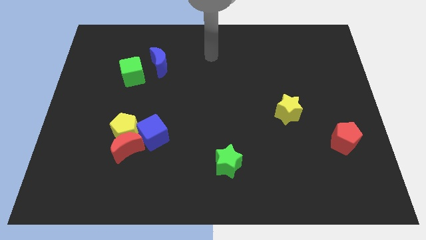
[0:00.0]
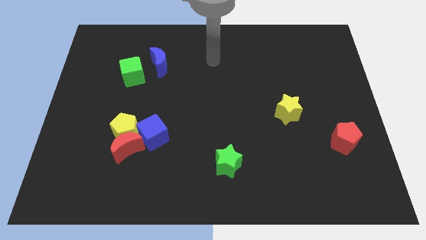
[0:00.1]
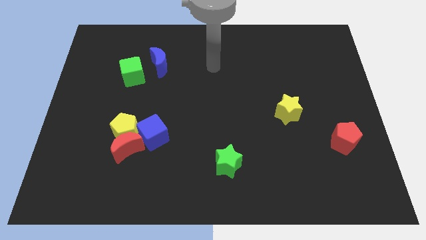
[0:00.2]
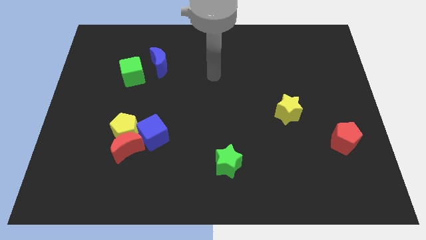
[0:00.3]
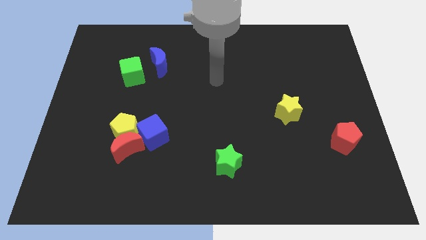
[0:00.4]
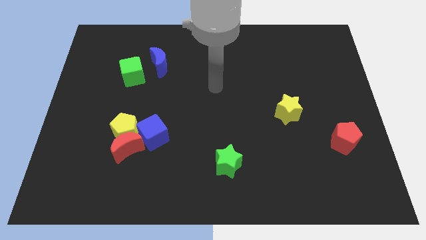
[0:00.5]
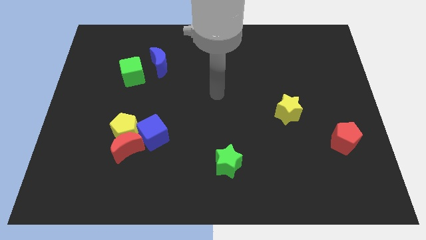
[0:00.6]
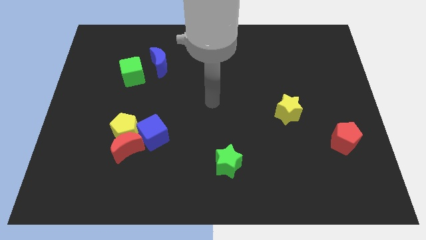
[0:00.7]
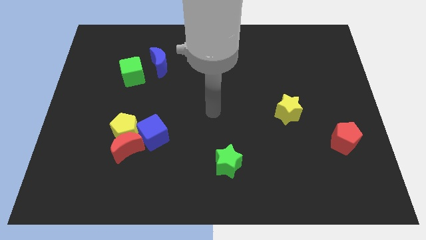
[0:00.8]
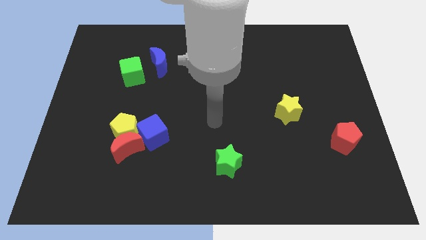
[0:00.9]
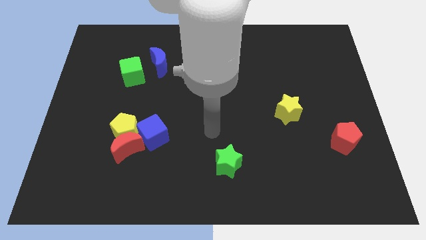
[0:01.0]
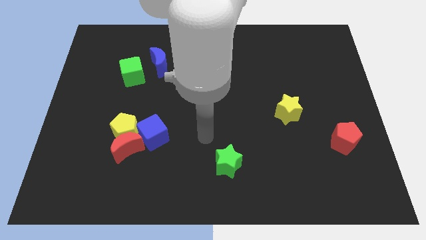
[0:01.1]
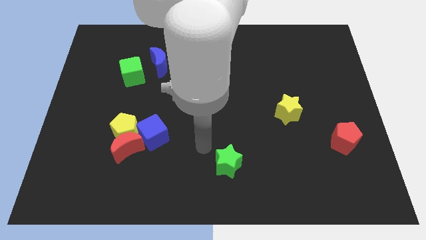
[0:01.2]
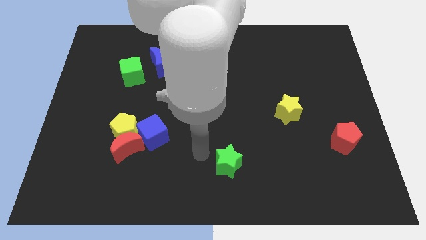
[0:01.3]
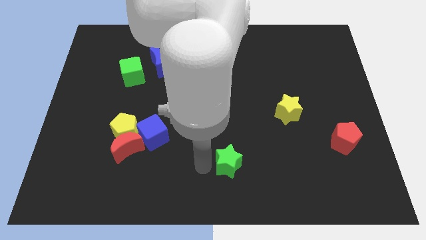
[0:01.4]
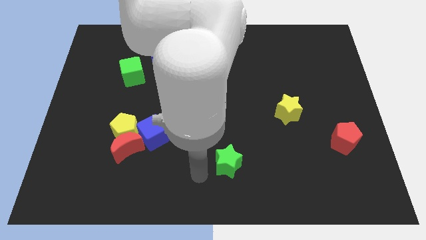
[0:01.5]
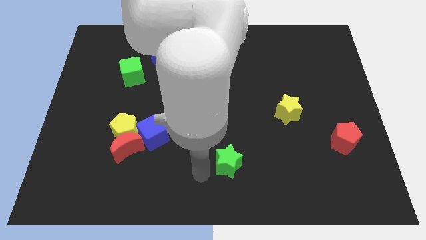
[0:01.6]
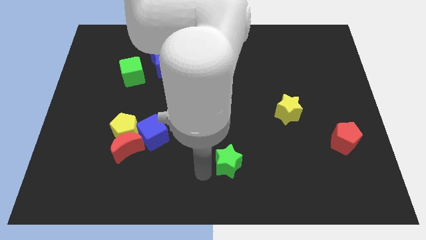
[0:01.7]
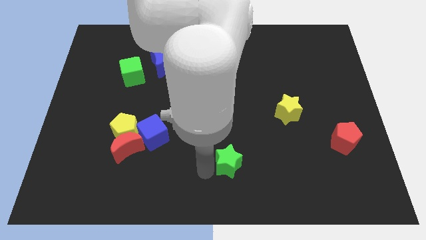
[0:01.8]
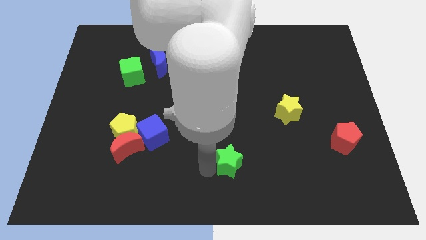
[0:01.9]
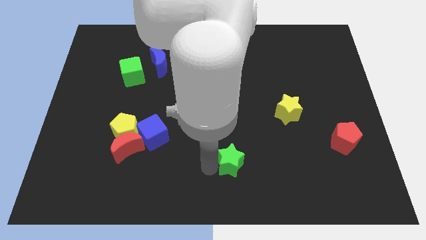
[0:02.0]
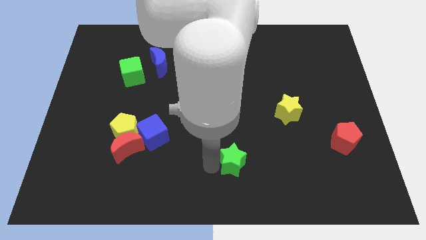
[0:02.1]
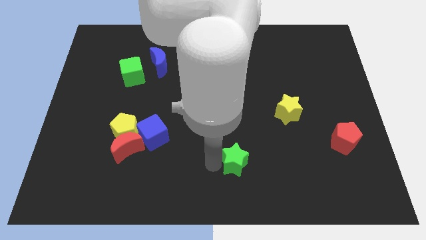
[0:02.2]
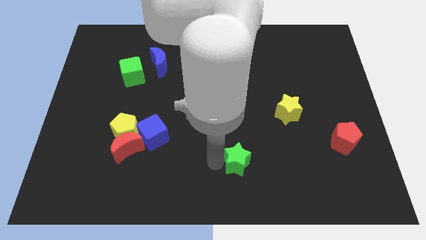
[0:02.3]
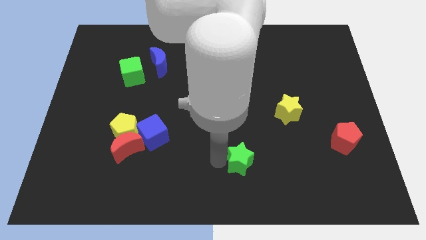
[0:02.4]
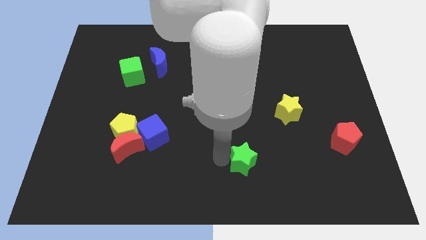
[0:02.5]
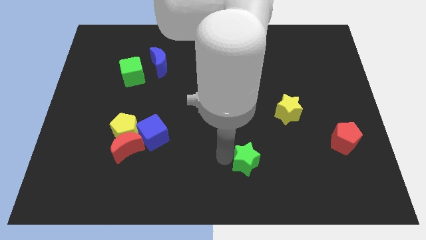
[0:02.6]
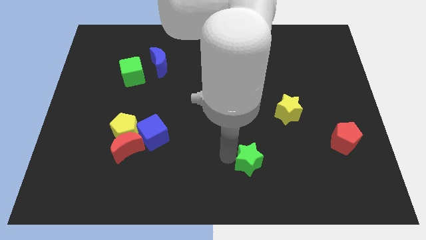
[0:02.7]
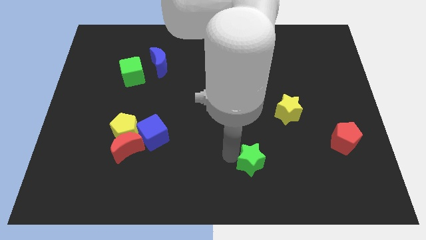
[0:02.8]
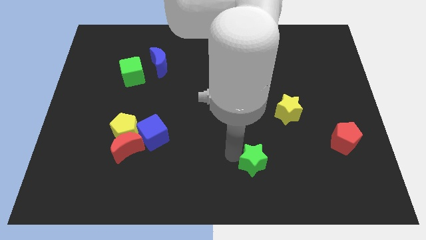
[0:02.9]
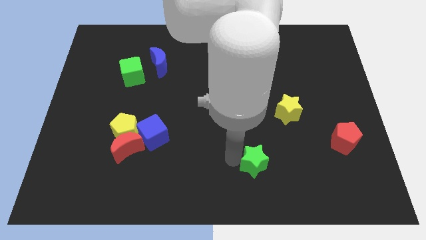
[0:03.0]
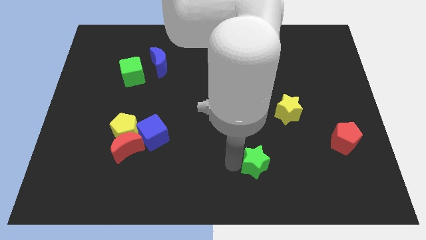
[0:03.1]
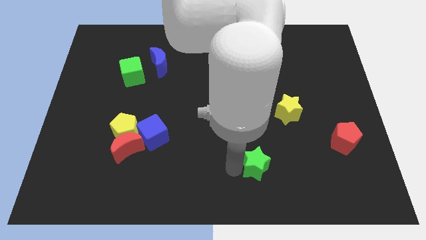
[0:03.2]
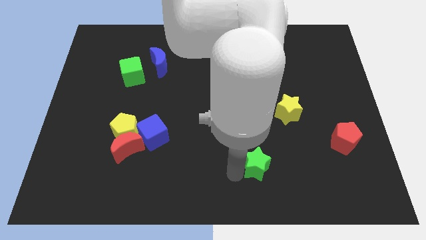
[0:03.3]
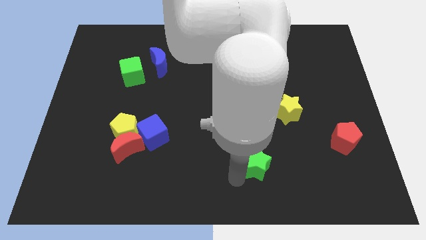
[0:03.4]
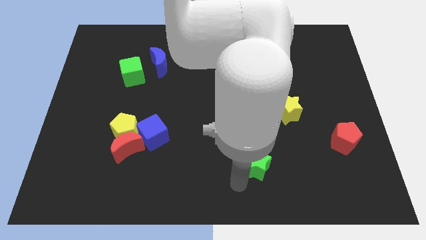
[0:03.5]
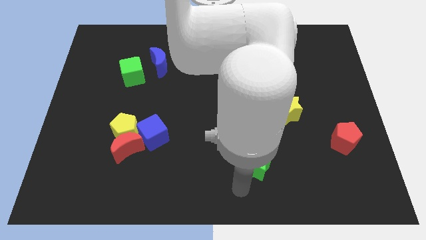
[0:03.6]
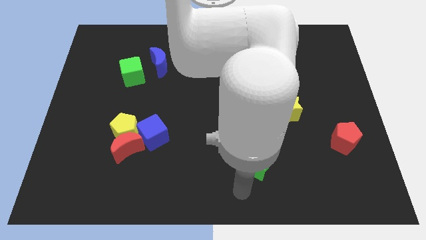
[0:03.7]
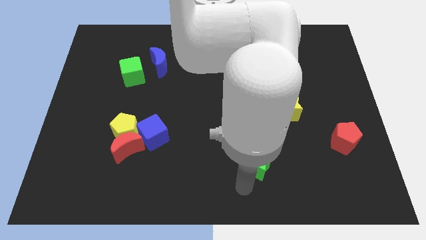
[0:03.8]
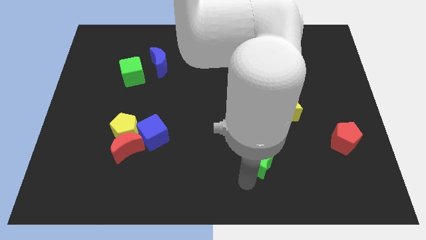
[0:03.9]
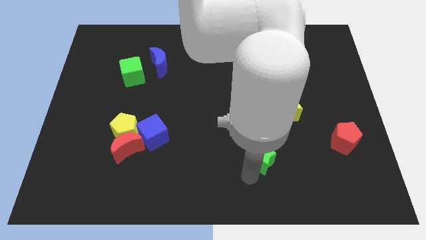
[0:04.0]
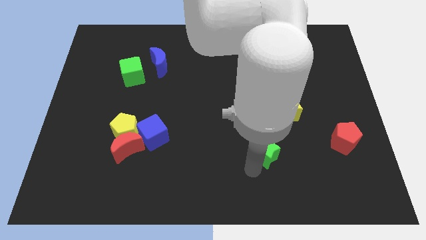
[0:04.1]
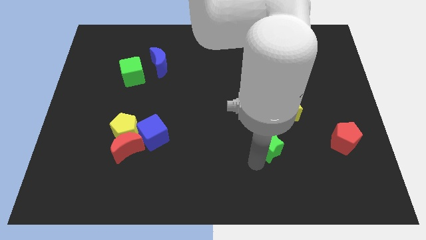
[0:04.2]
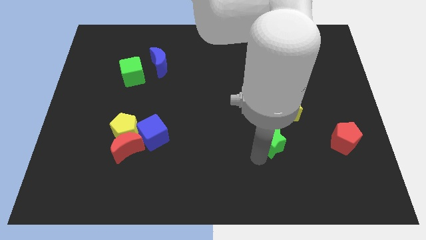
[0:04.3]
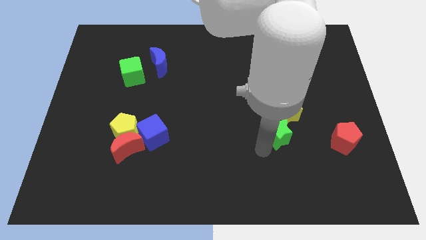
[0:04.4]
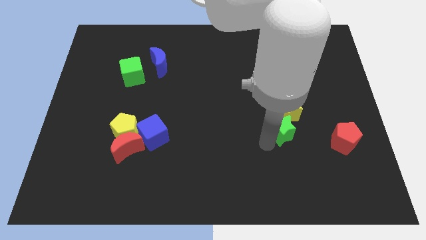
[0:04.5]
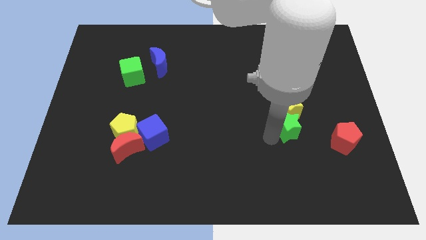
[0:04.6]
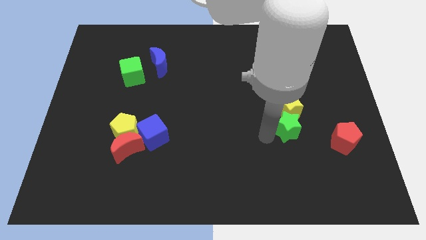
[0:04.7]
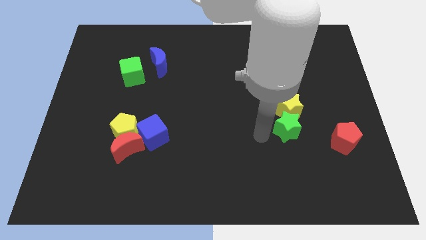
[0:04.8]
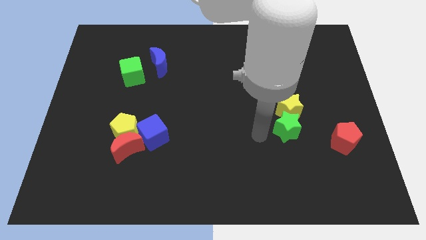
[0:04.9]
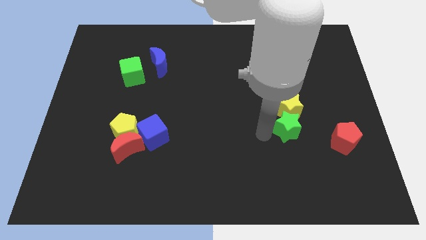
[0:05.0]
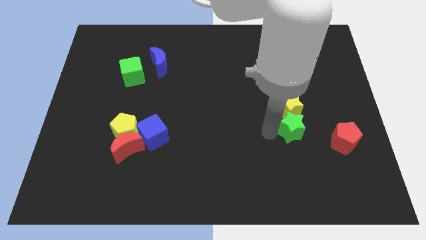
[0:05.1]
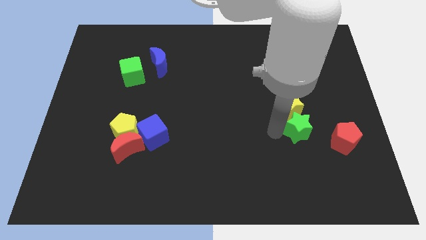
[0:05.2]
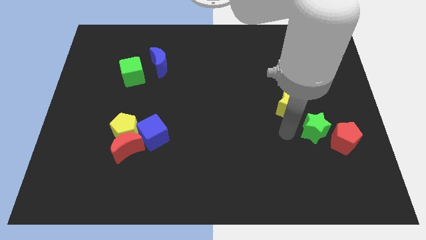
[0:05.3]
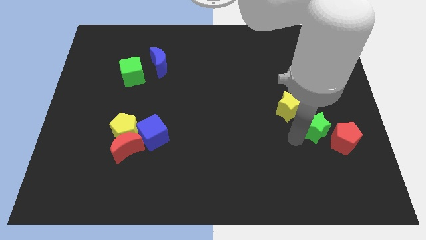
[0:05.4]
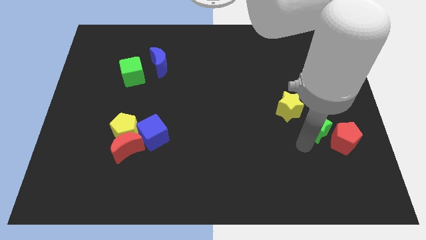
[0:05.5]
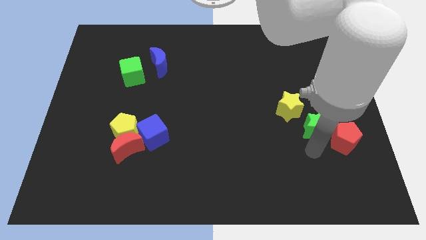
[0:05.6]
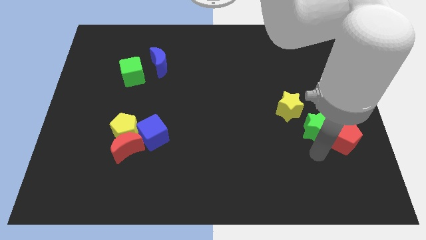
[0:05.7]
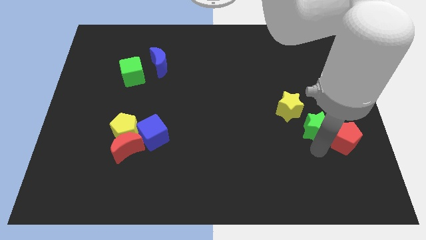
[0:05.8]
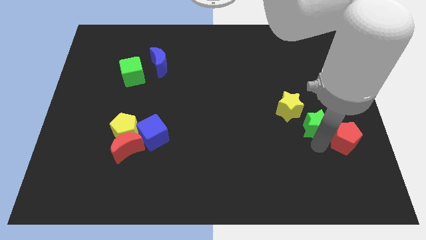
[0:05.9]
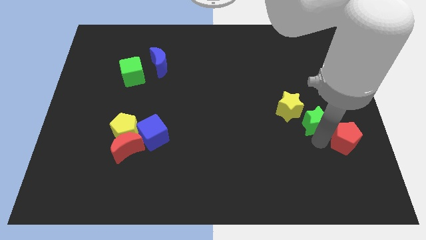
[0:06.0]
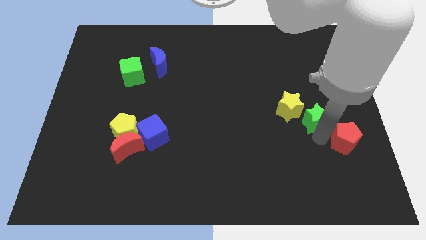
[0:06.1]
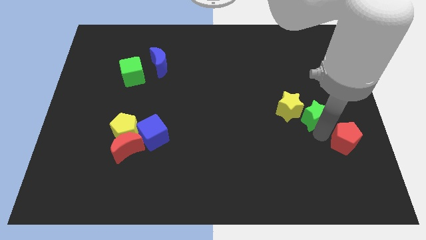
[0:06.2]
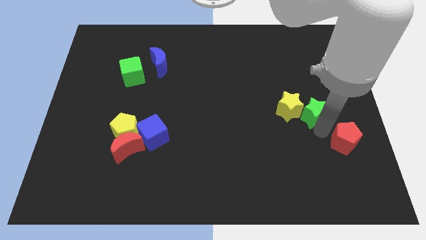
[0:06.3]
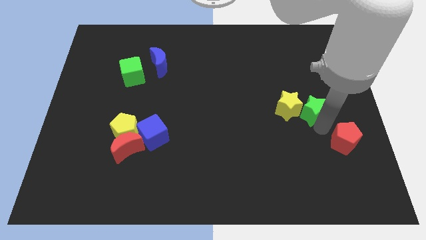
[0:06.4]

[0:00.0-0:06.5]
put the green star to the top right side of the yellow star
